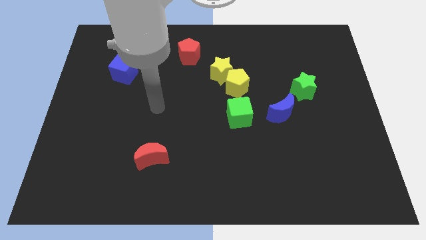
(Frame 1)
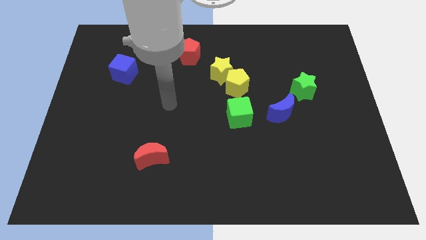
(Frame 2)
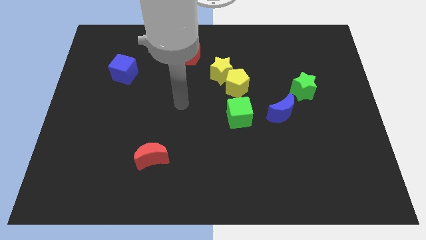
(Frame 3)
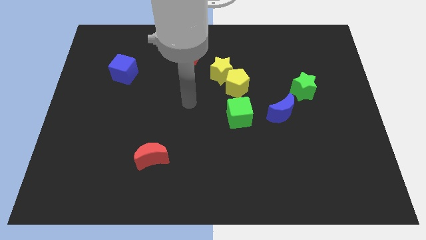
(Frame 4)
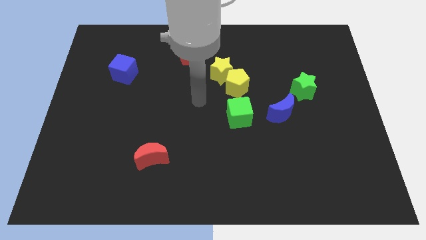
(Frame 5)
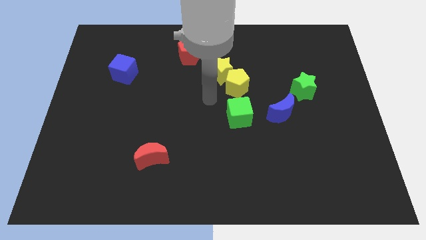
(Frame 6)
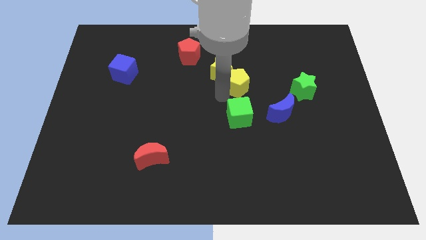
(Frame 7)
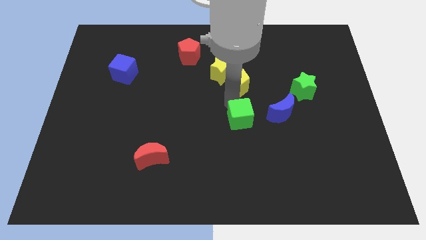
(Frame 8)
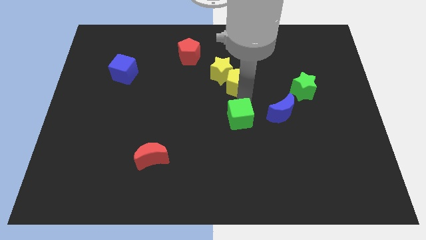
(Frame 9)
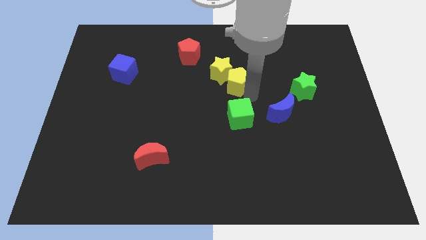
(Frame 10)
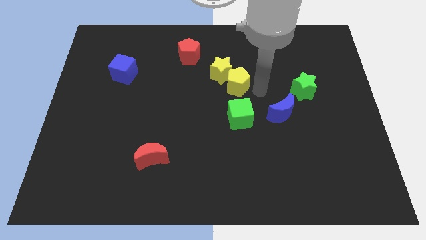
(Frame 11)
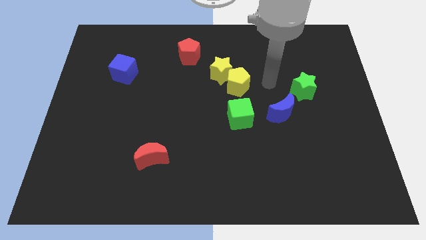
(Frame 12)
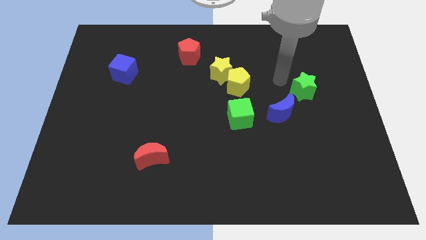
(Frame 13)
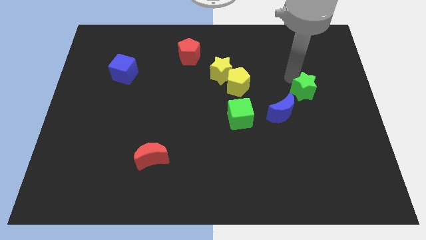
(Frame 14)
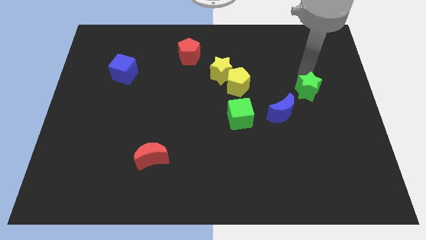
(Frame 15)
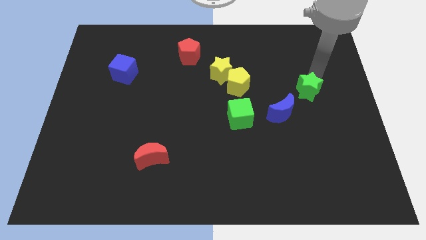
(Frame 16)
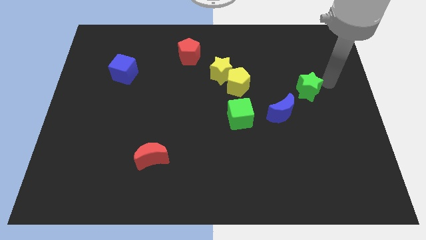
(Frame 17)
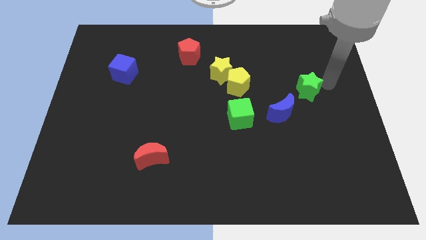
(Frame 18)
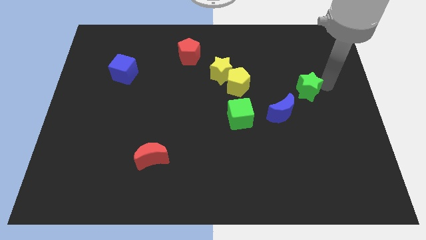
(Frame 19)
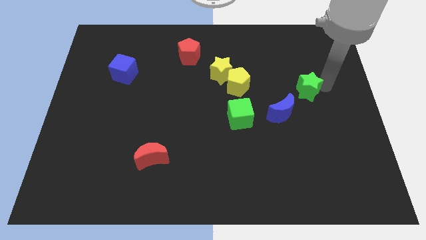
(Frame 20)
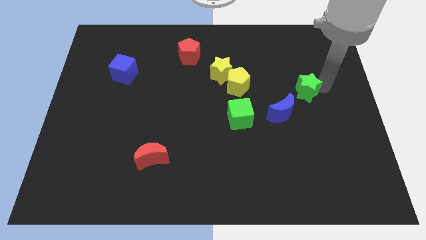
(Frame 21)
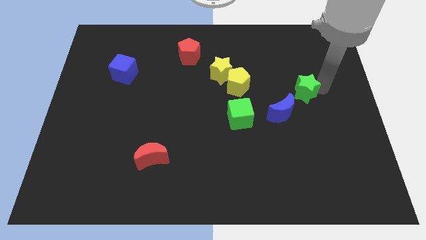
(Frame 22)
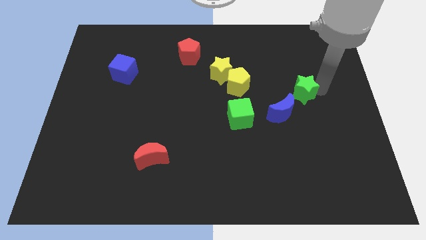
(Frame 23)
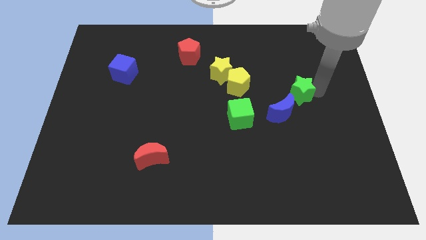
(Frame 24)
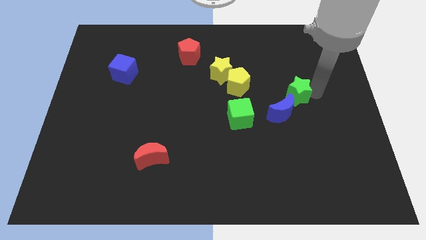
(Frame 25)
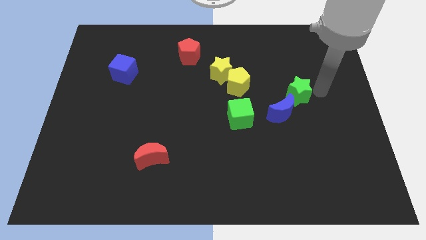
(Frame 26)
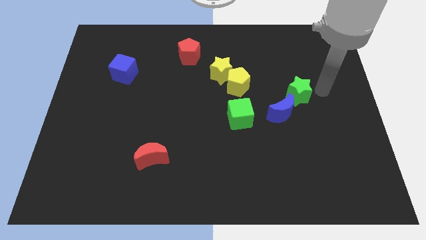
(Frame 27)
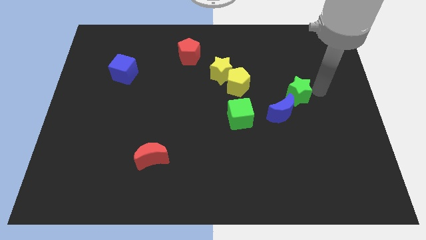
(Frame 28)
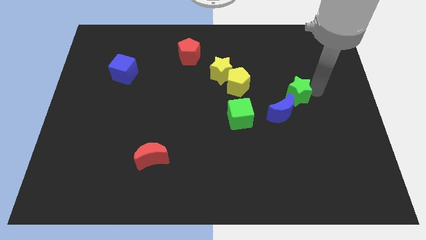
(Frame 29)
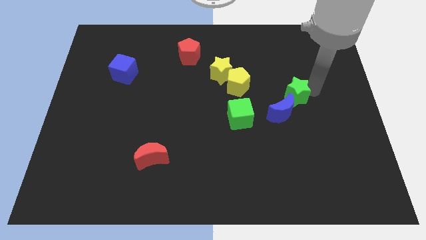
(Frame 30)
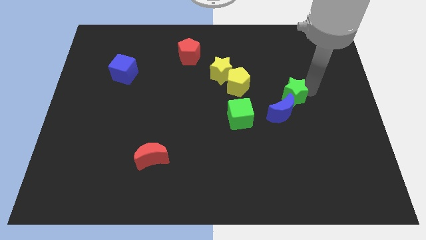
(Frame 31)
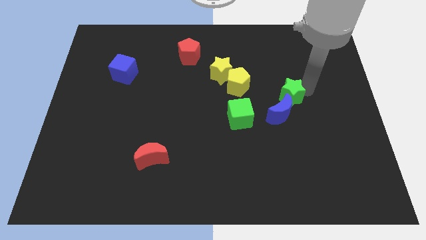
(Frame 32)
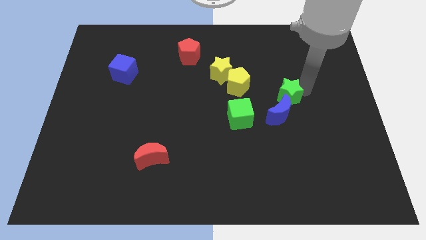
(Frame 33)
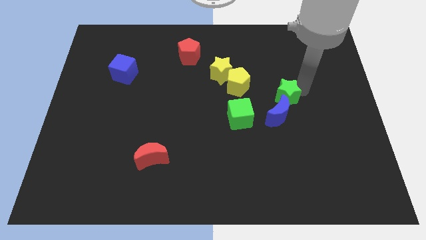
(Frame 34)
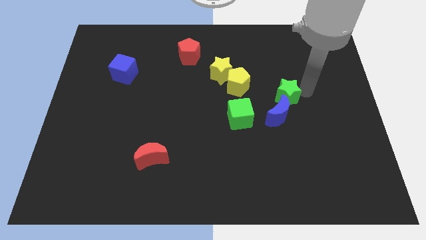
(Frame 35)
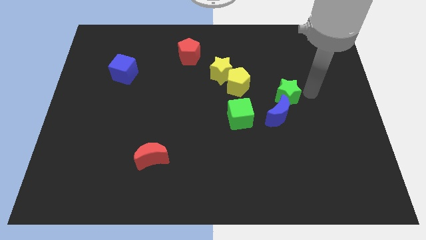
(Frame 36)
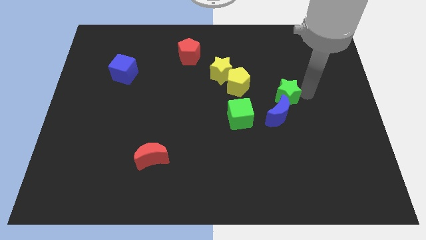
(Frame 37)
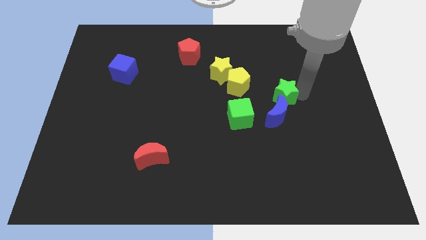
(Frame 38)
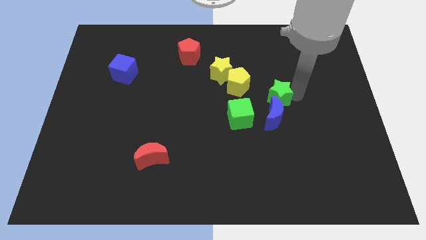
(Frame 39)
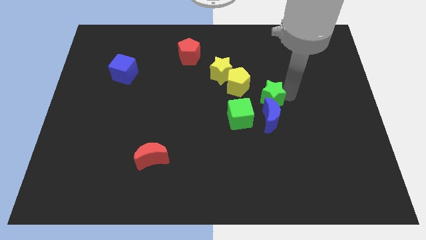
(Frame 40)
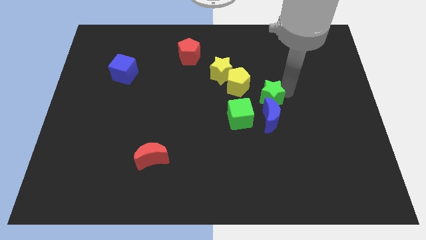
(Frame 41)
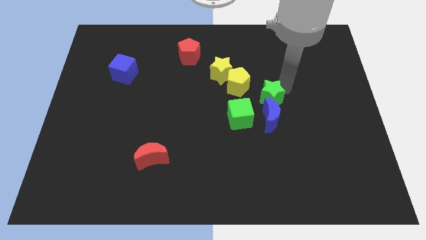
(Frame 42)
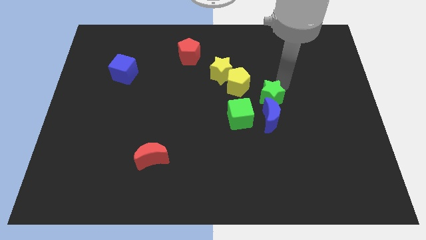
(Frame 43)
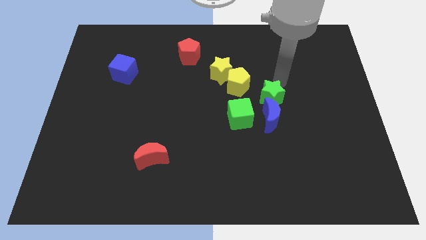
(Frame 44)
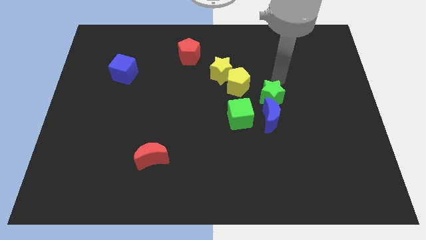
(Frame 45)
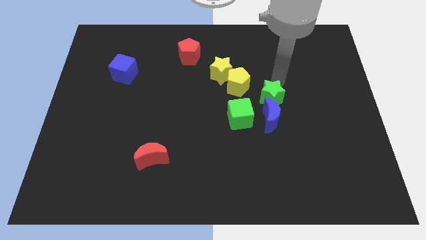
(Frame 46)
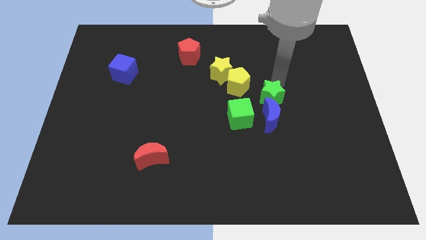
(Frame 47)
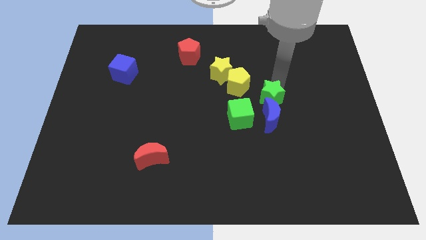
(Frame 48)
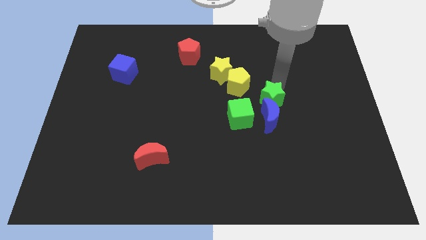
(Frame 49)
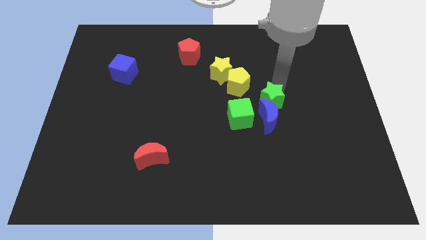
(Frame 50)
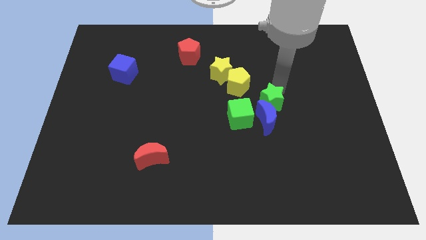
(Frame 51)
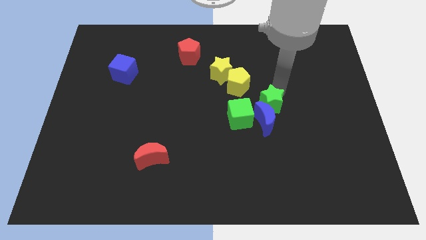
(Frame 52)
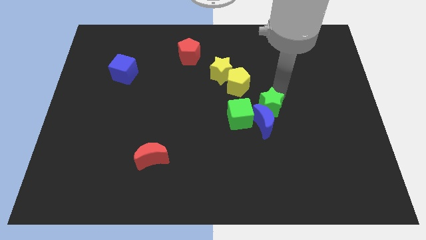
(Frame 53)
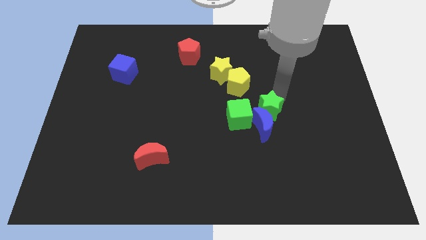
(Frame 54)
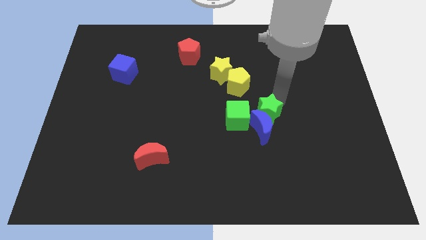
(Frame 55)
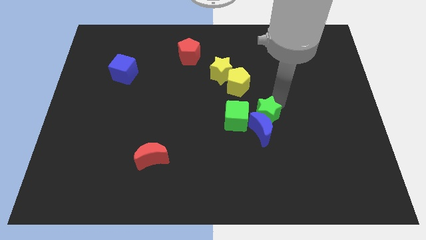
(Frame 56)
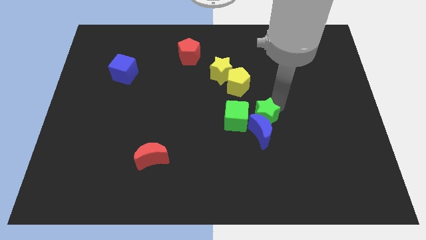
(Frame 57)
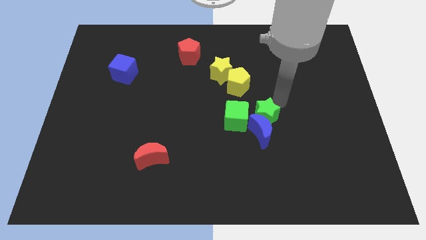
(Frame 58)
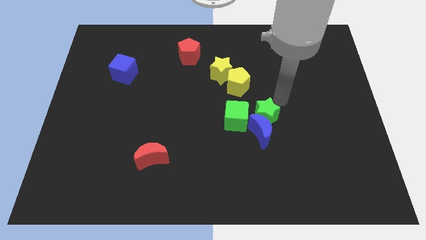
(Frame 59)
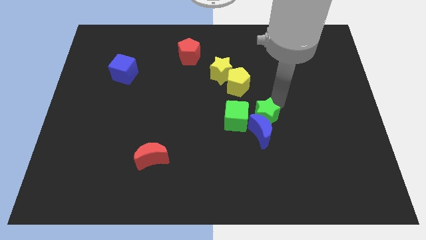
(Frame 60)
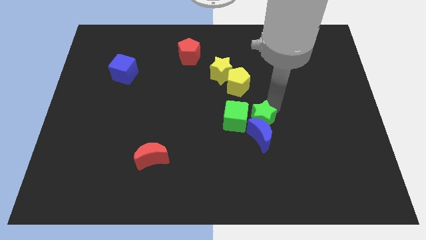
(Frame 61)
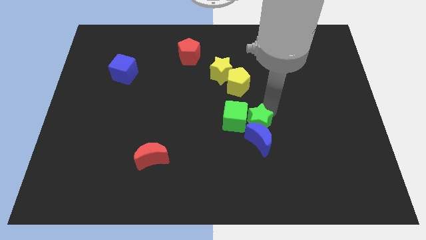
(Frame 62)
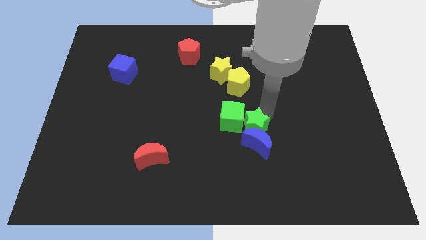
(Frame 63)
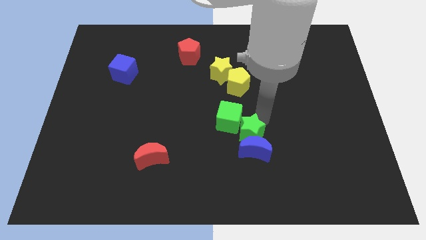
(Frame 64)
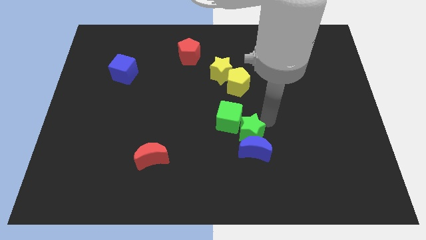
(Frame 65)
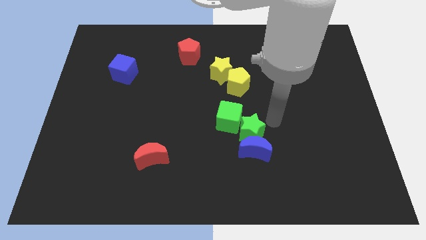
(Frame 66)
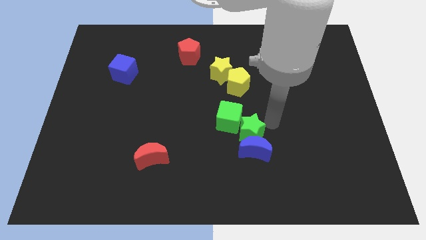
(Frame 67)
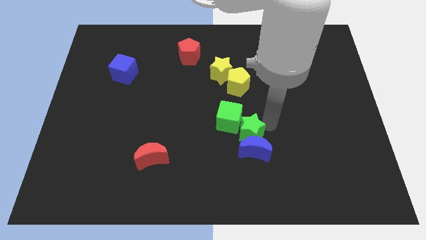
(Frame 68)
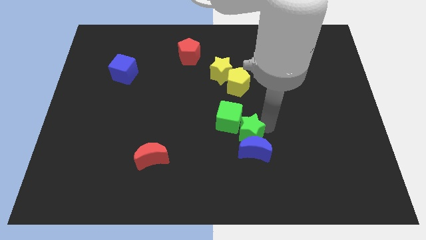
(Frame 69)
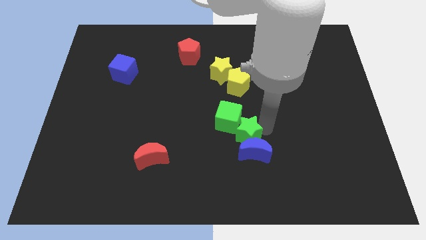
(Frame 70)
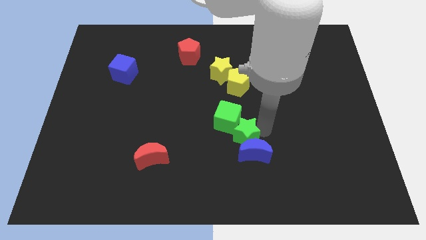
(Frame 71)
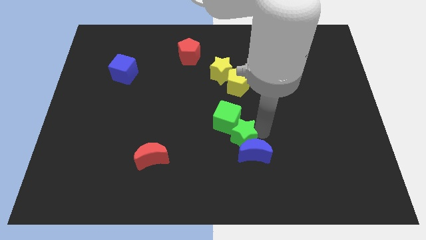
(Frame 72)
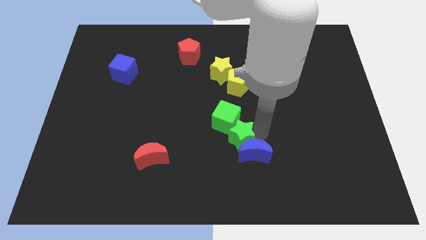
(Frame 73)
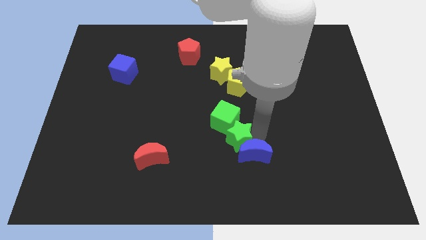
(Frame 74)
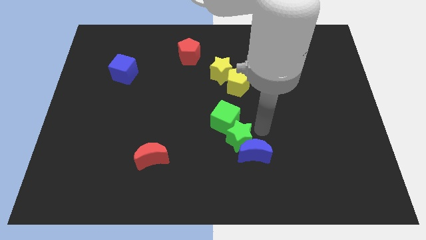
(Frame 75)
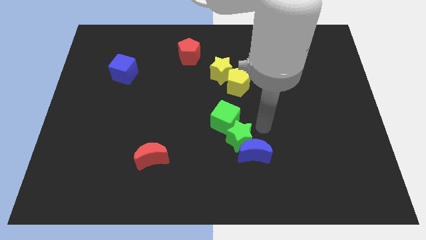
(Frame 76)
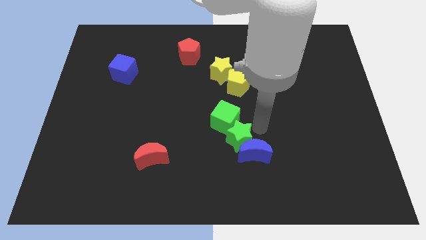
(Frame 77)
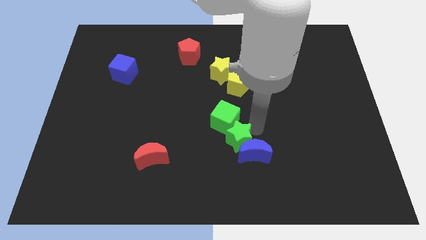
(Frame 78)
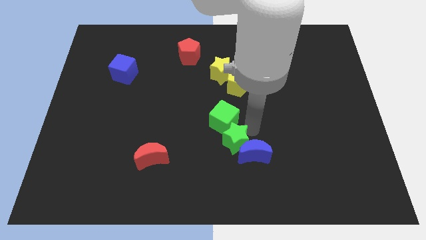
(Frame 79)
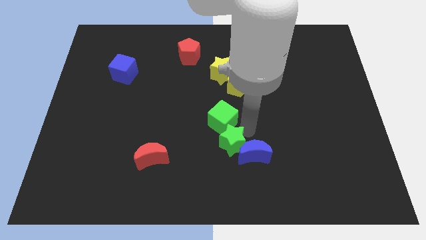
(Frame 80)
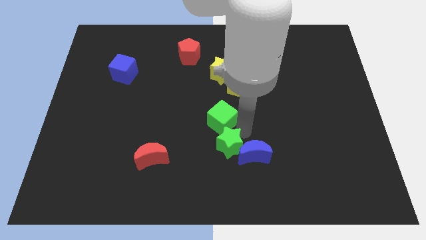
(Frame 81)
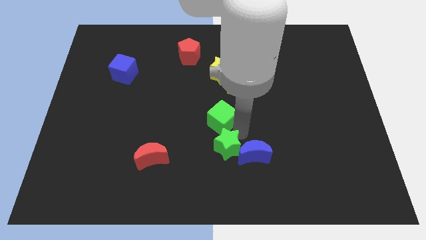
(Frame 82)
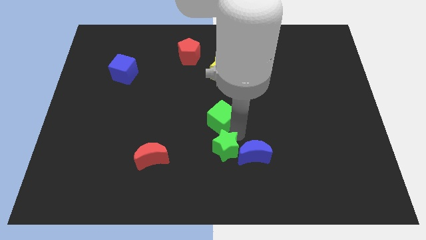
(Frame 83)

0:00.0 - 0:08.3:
move the green star just right of the red moon

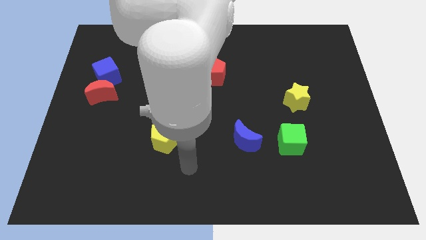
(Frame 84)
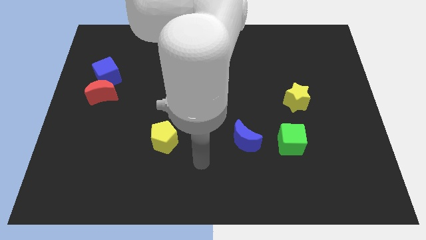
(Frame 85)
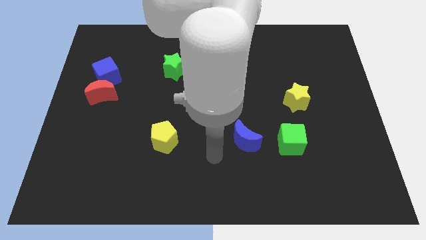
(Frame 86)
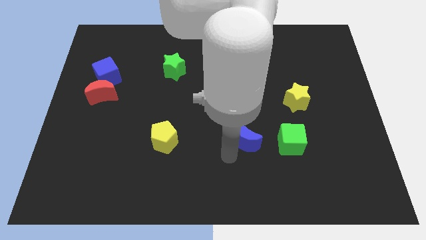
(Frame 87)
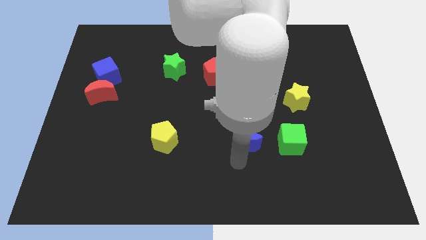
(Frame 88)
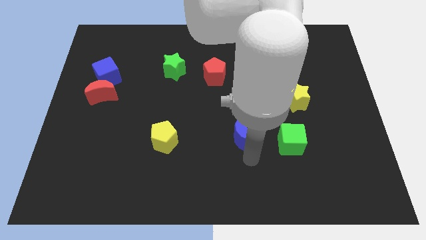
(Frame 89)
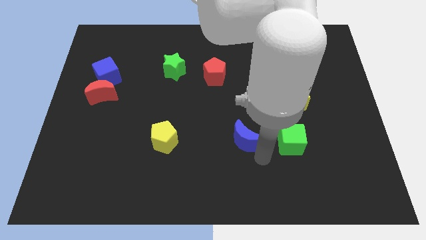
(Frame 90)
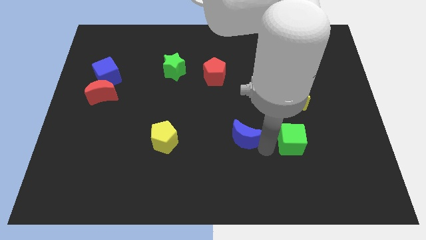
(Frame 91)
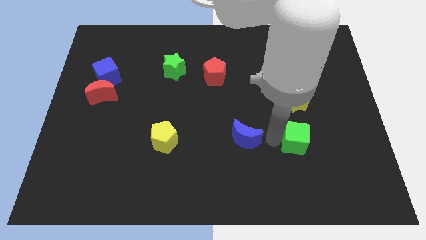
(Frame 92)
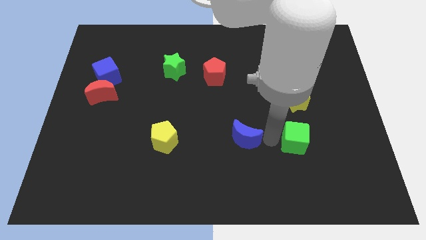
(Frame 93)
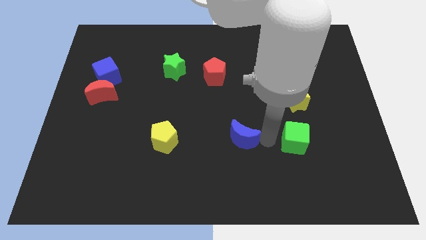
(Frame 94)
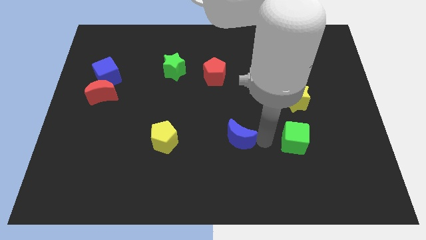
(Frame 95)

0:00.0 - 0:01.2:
push the blue moon to the right of the yellow pentagon
